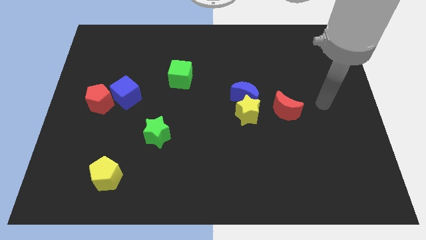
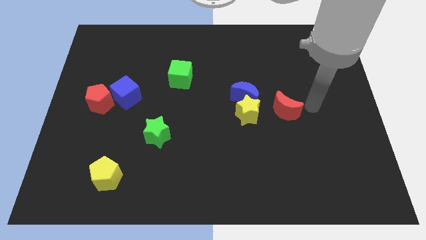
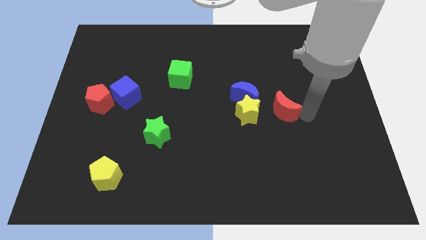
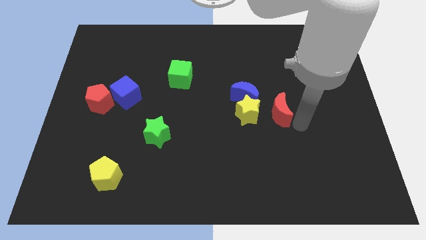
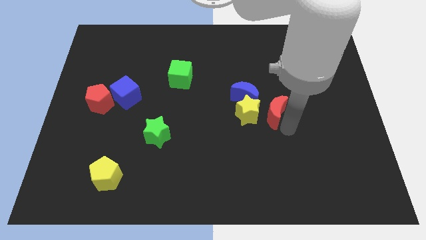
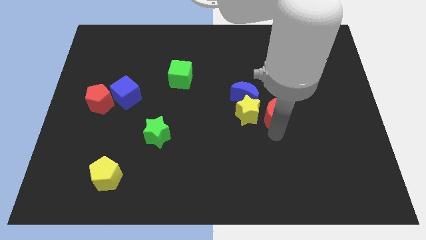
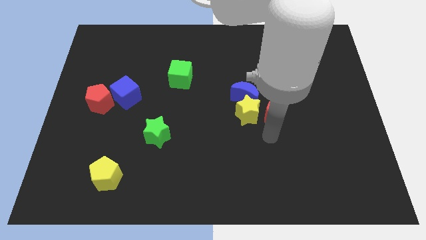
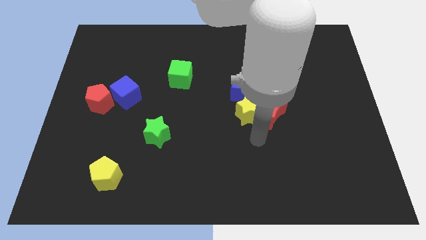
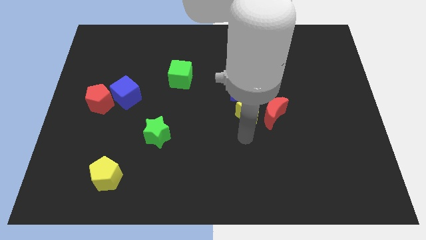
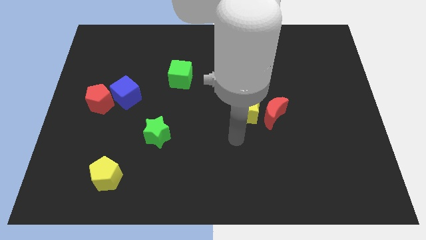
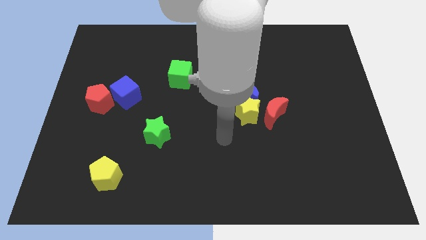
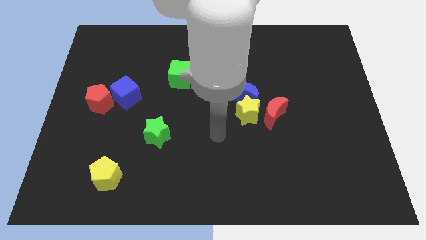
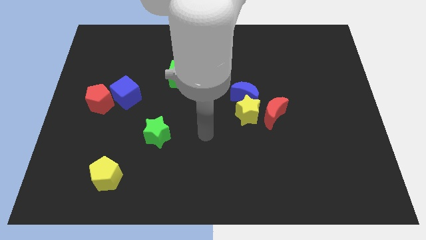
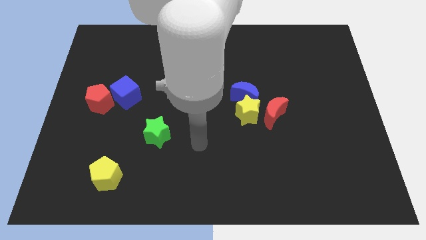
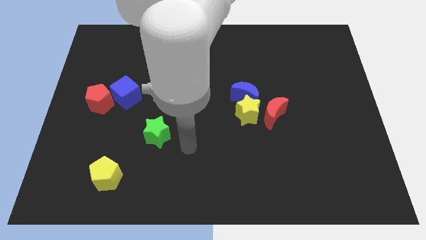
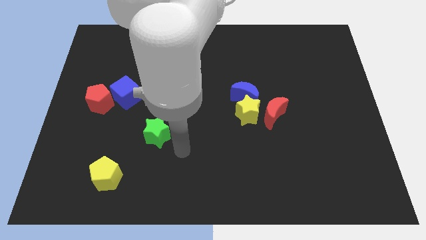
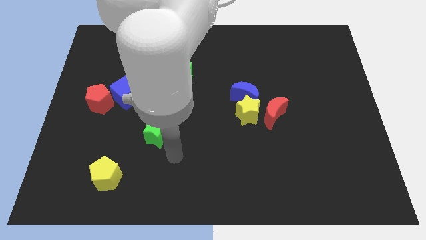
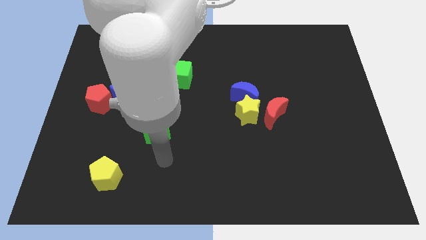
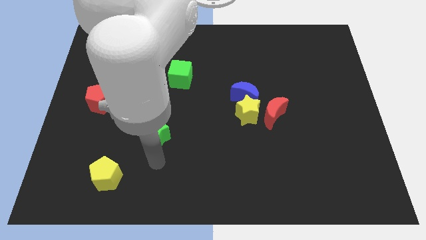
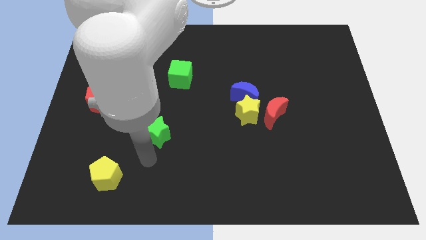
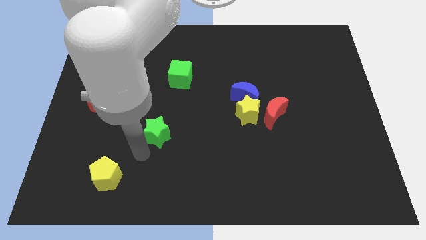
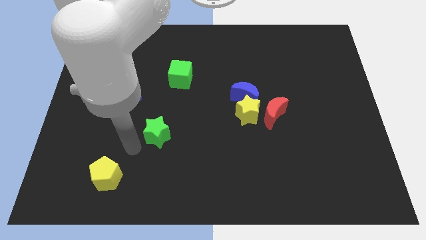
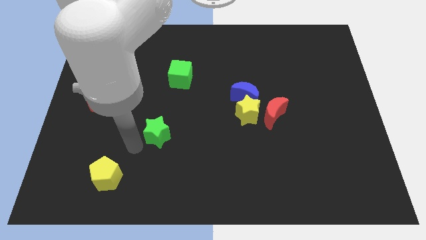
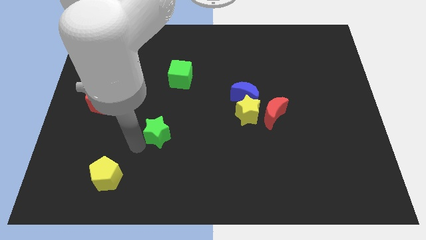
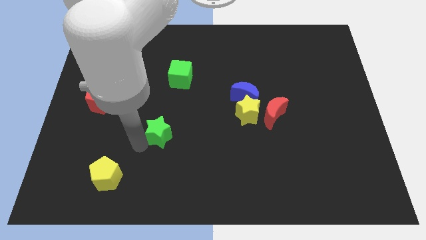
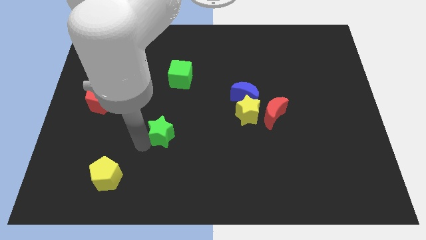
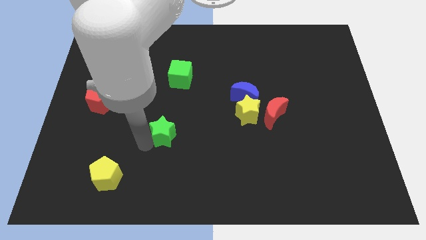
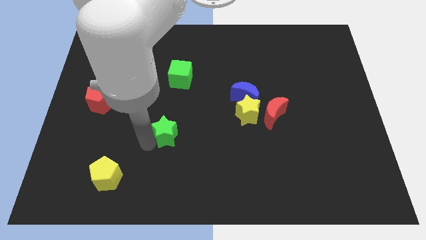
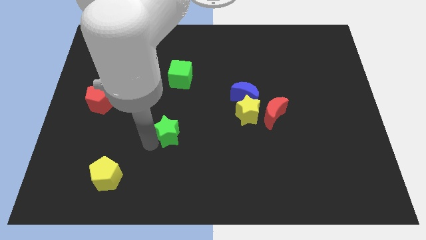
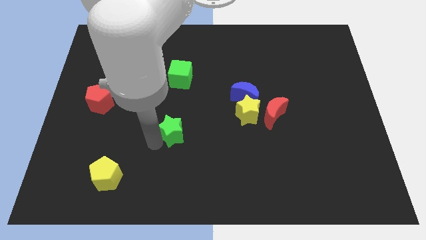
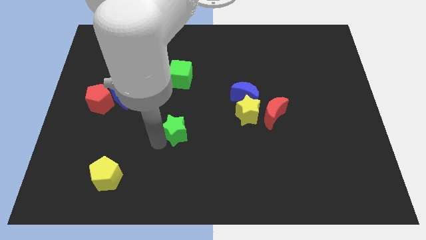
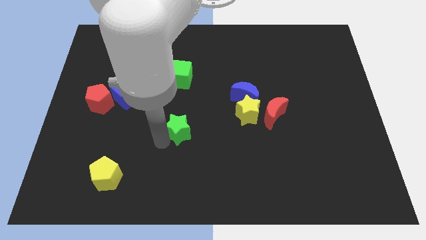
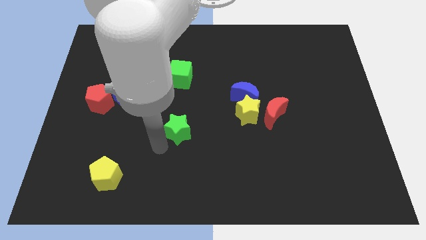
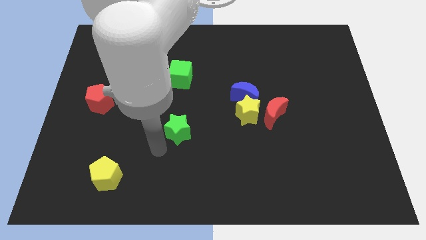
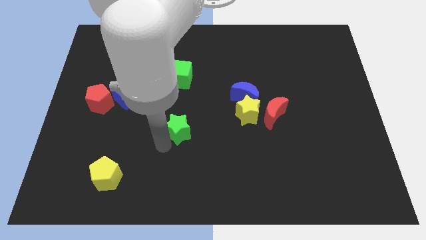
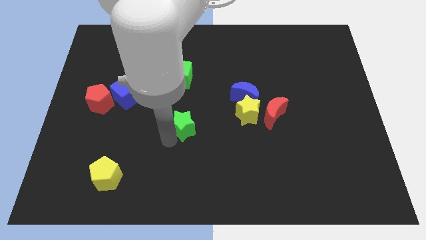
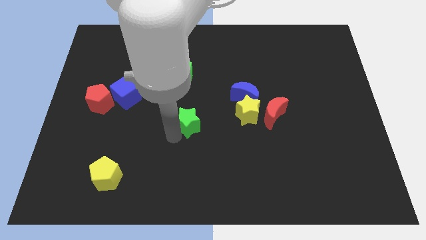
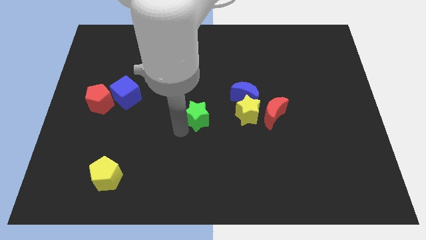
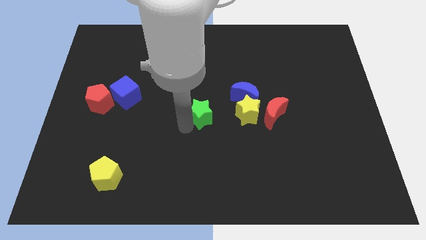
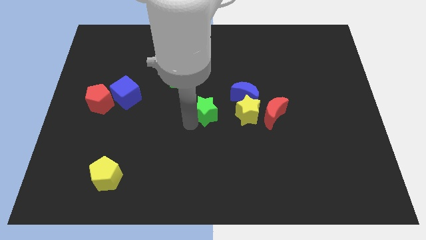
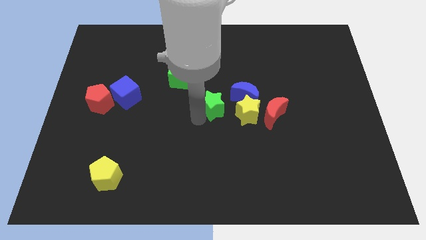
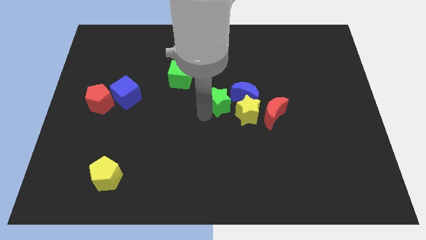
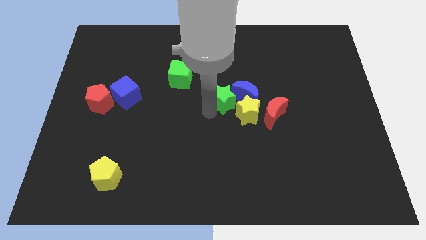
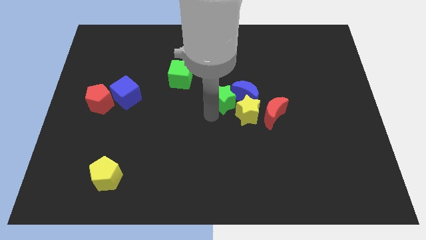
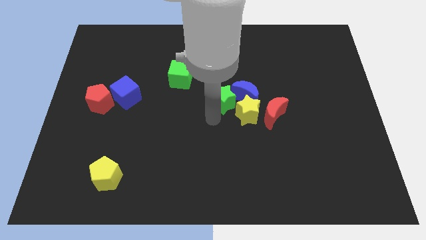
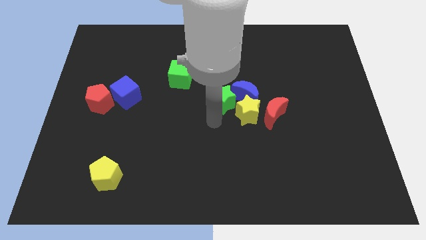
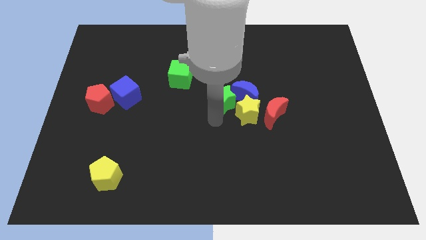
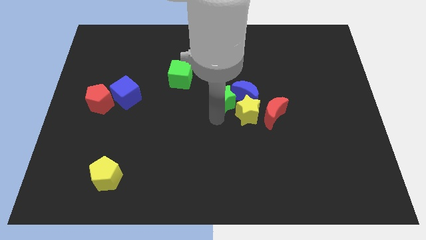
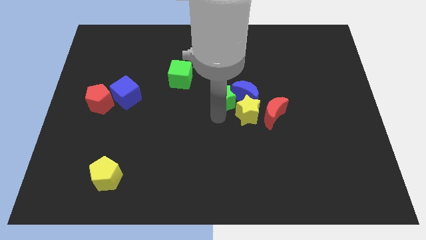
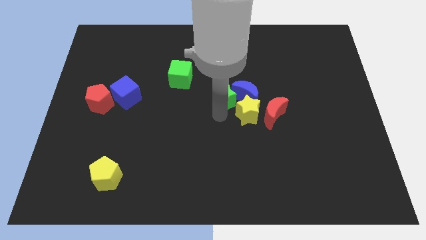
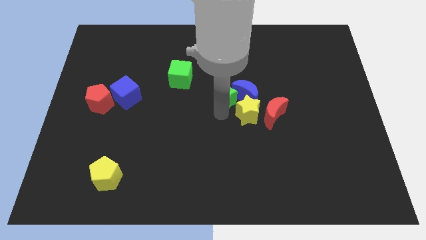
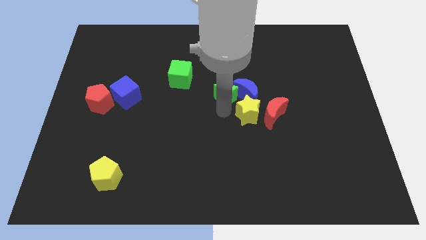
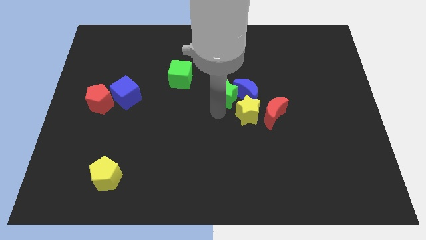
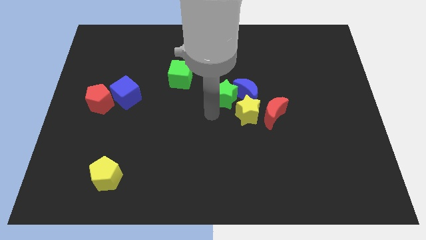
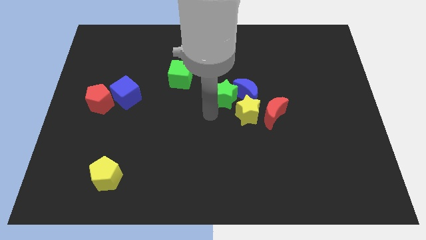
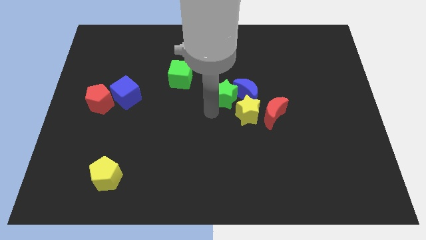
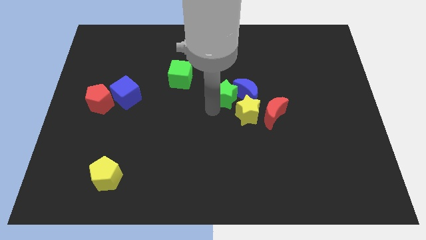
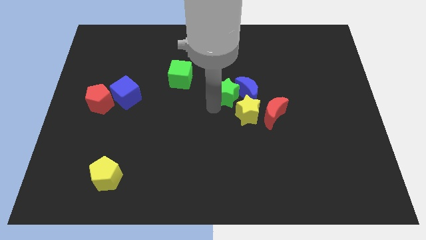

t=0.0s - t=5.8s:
put the green star diagonally up and to the left of the red moon

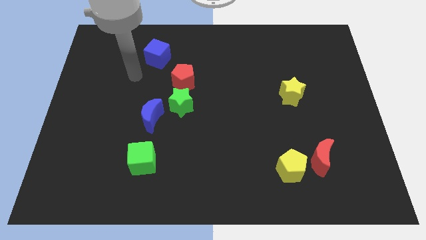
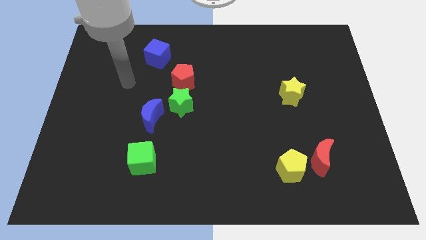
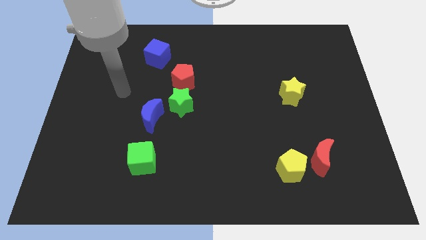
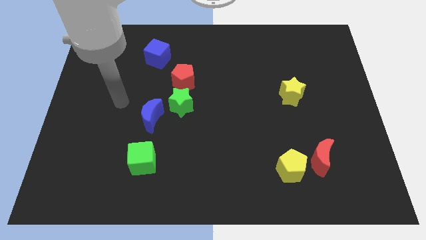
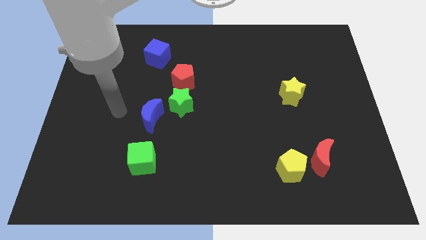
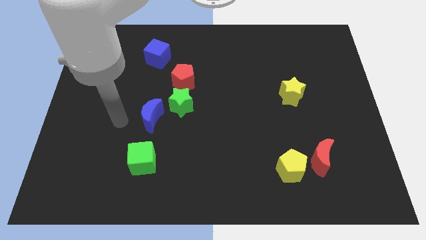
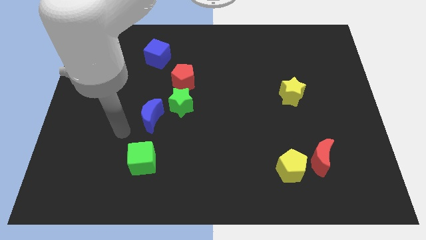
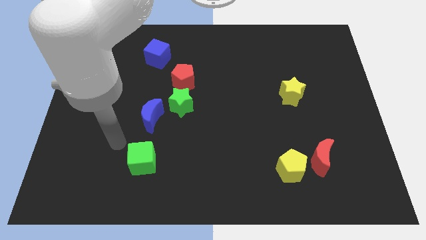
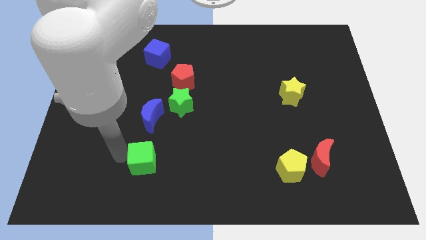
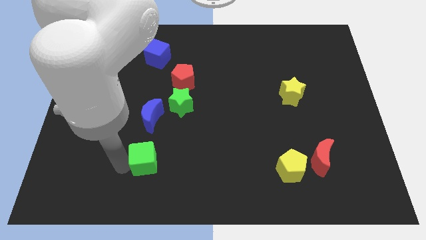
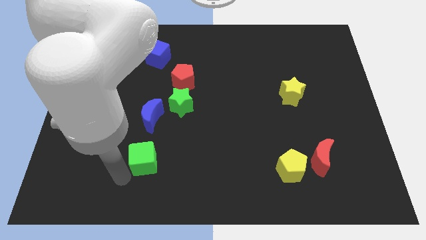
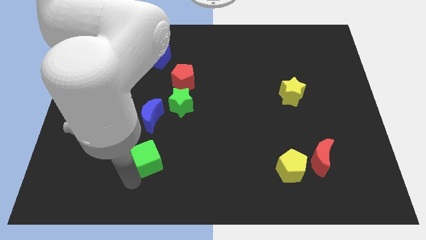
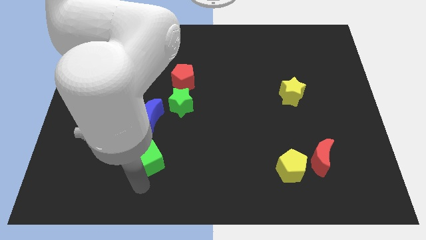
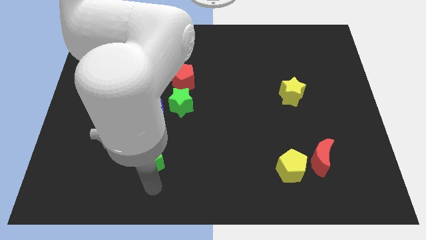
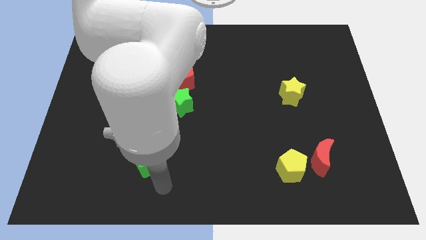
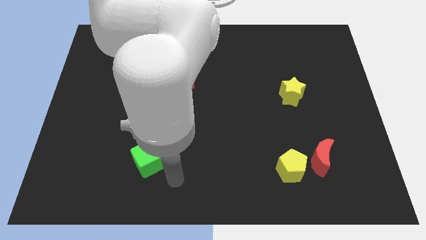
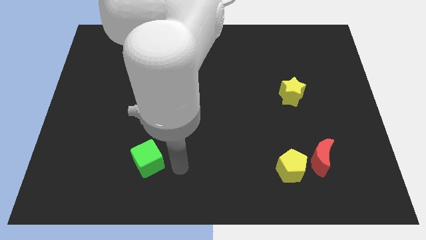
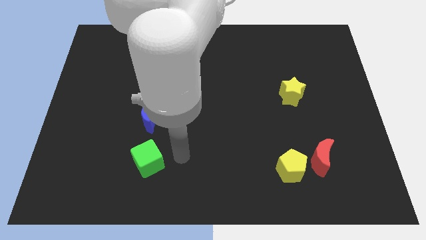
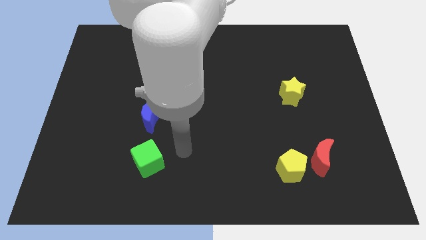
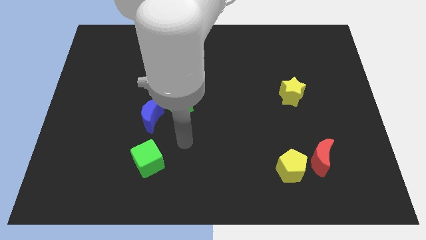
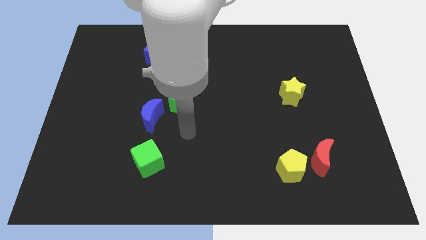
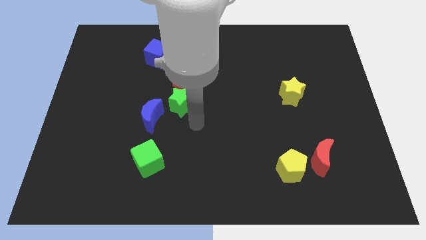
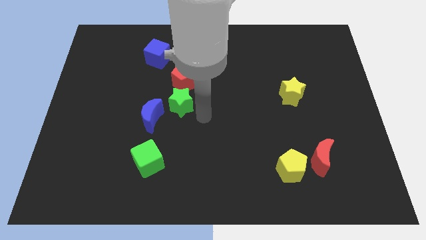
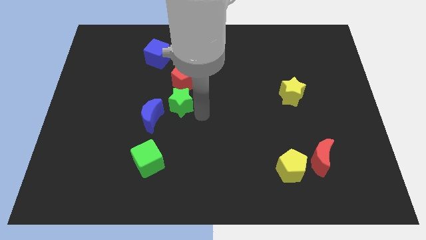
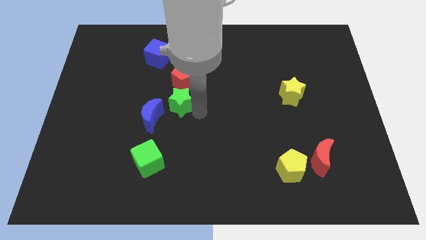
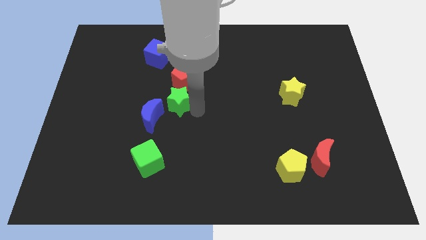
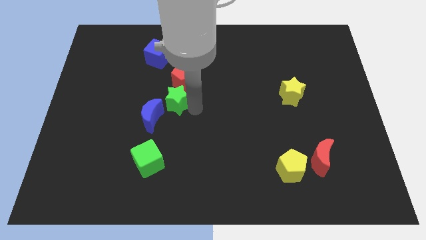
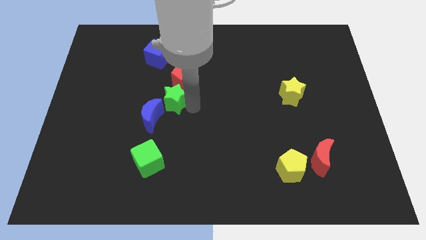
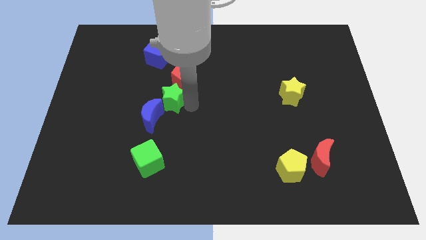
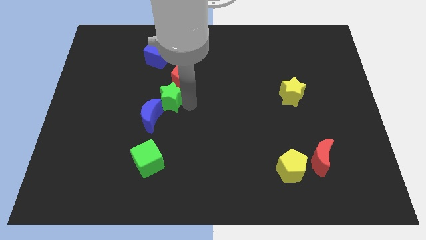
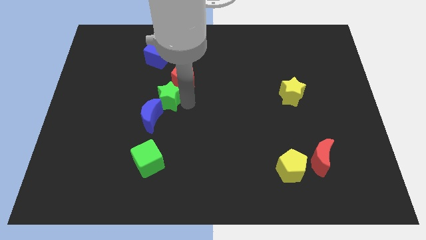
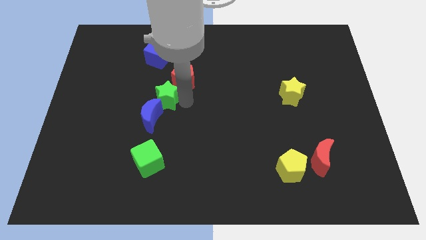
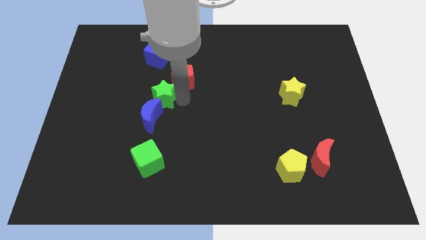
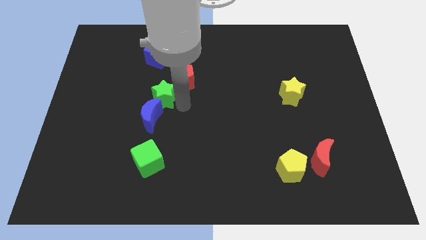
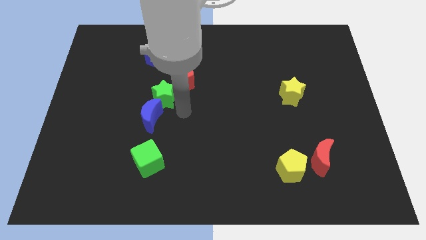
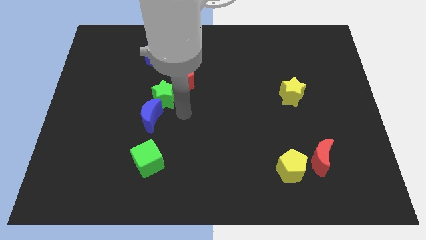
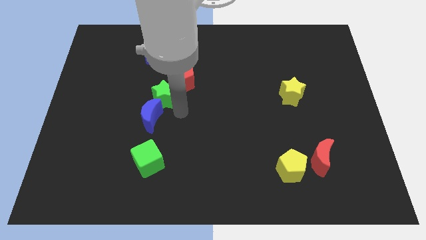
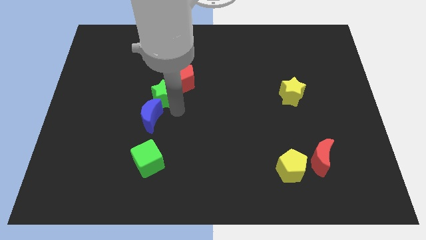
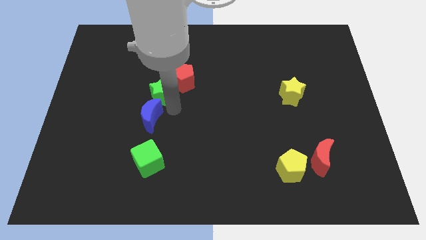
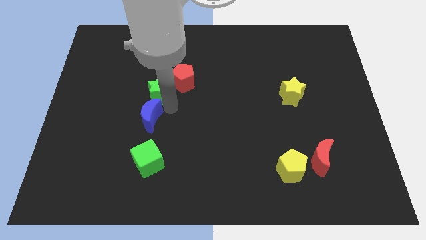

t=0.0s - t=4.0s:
move the green star to the left of the red pentagon
